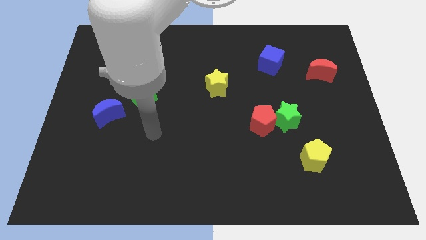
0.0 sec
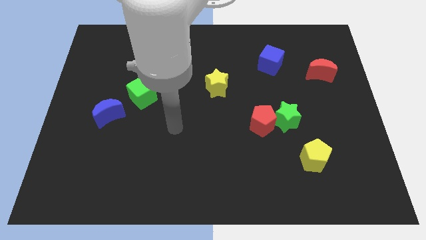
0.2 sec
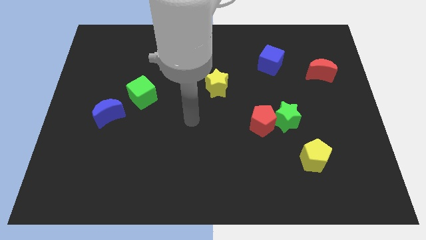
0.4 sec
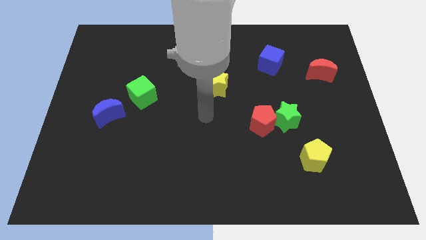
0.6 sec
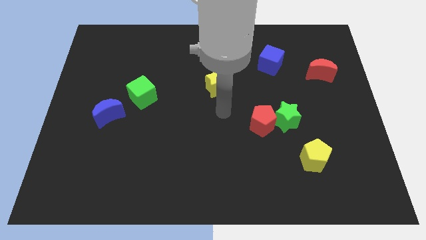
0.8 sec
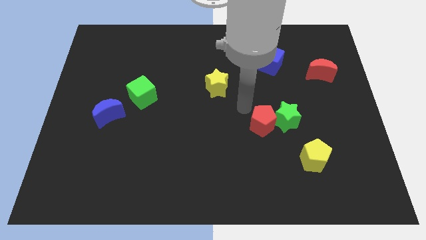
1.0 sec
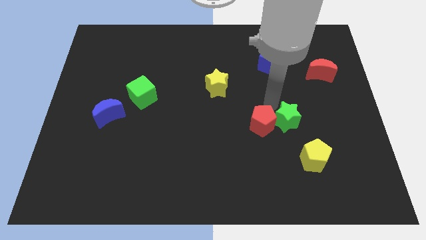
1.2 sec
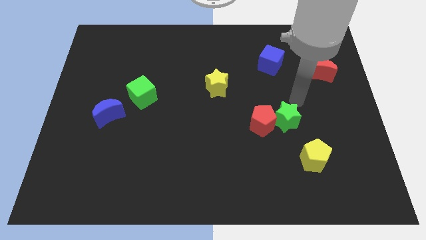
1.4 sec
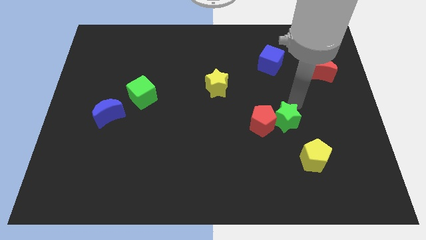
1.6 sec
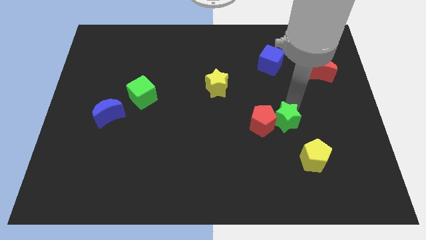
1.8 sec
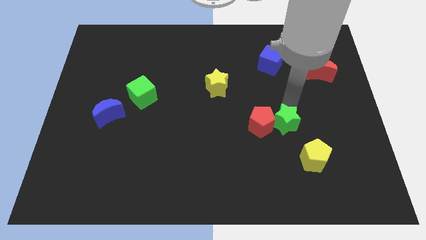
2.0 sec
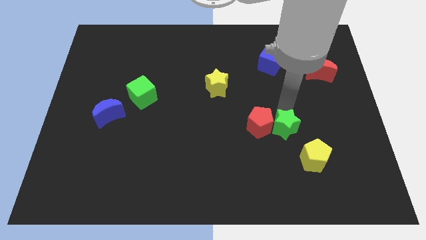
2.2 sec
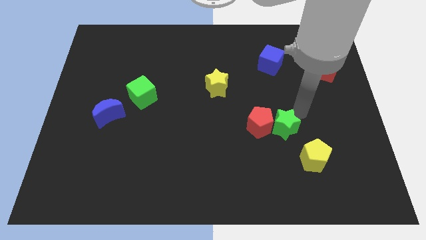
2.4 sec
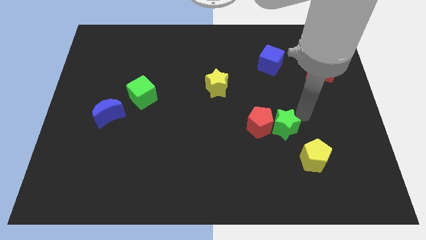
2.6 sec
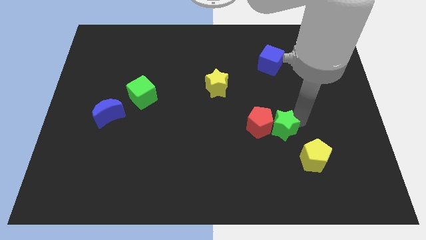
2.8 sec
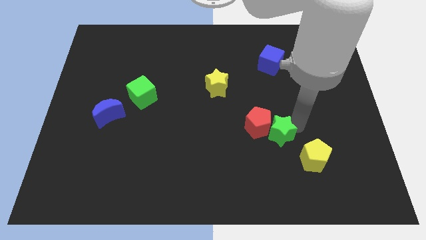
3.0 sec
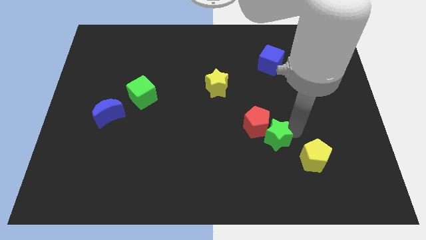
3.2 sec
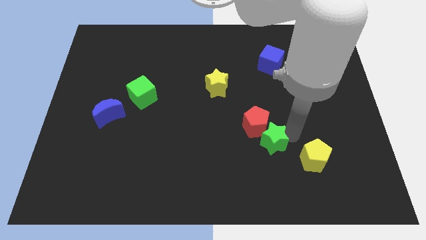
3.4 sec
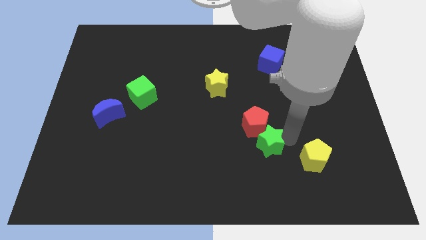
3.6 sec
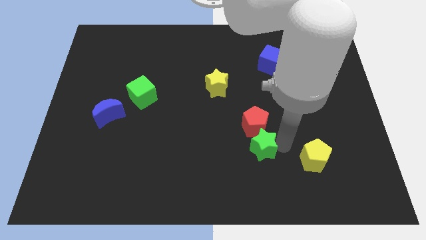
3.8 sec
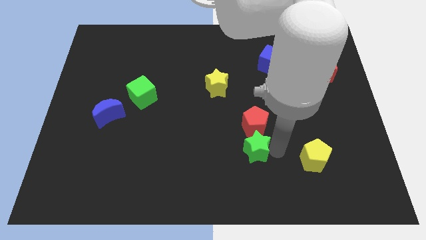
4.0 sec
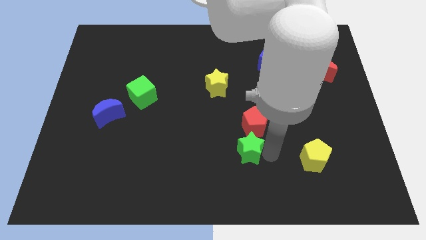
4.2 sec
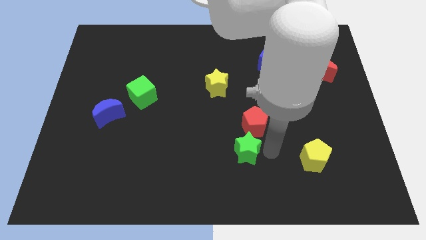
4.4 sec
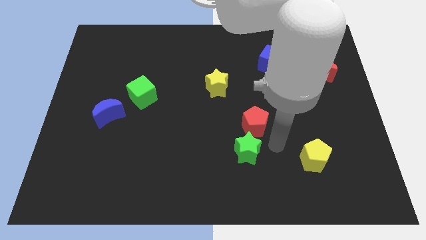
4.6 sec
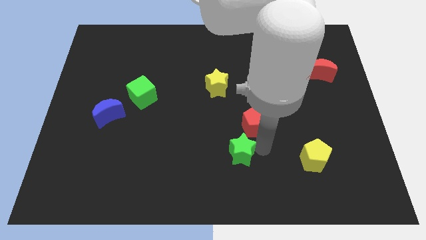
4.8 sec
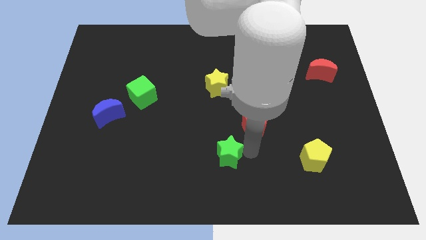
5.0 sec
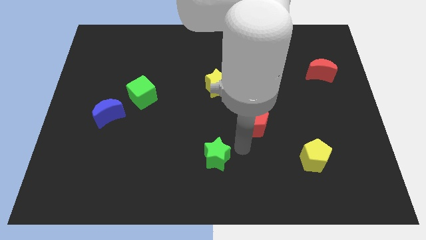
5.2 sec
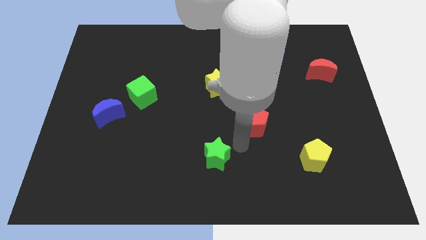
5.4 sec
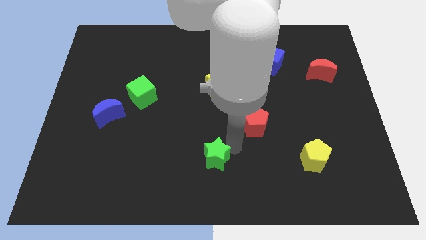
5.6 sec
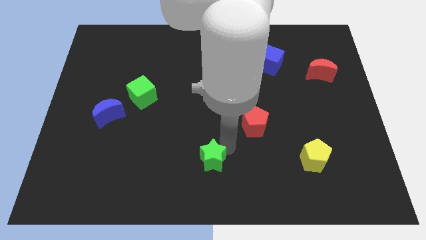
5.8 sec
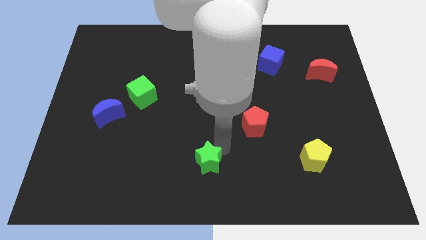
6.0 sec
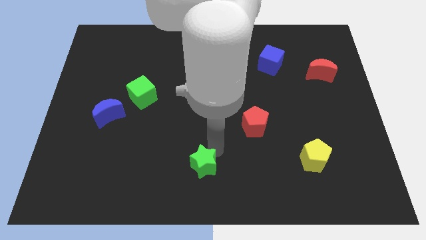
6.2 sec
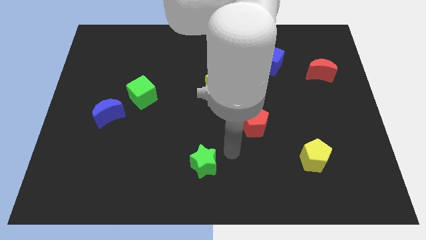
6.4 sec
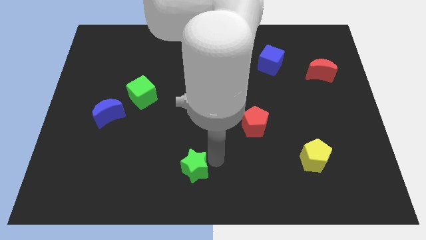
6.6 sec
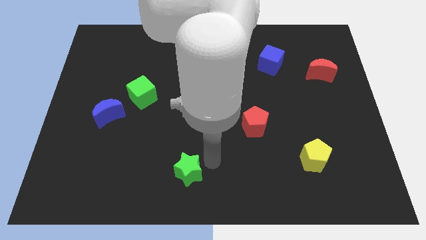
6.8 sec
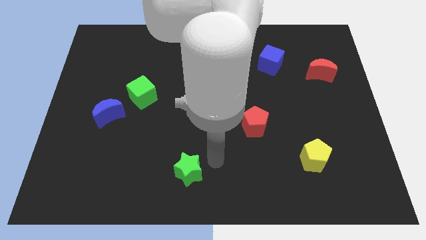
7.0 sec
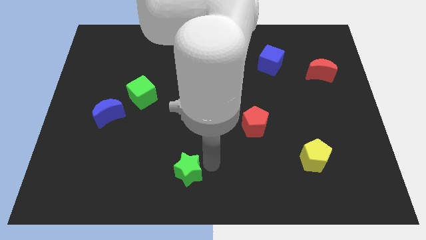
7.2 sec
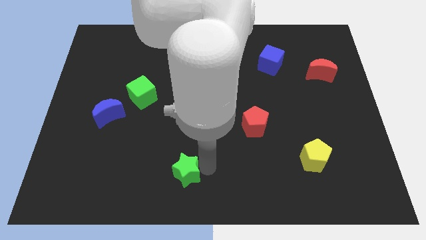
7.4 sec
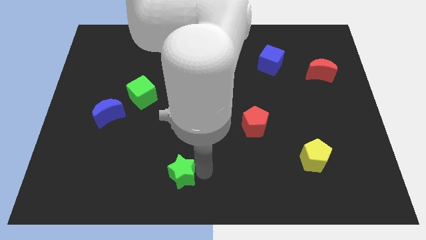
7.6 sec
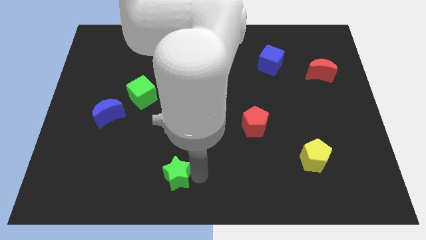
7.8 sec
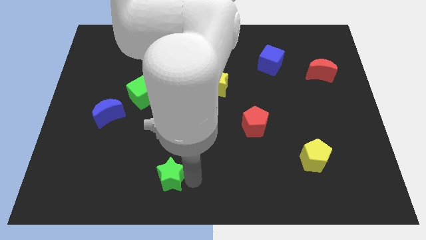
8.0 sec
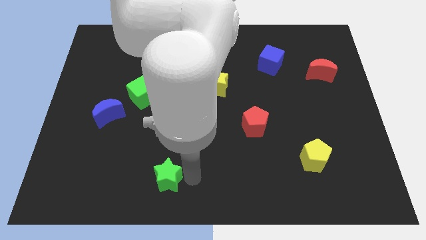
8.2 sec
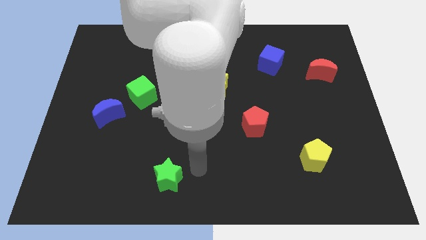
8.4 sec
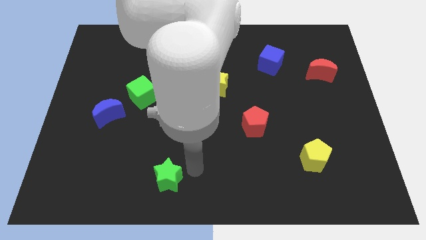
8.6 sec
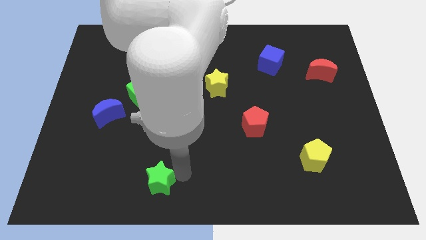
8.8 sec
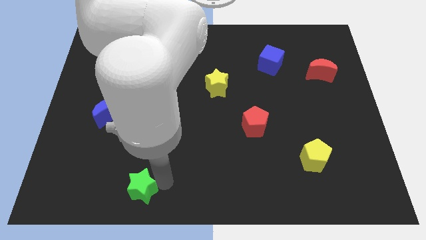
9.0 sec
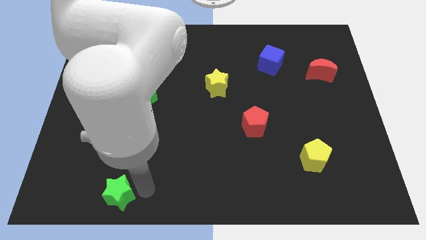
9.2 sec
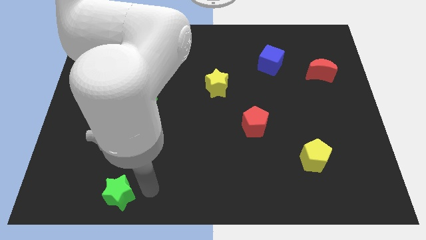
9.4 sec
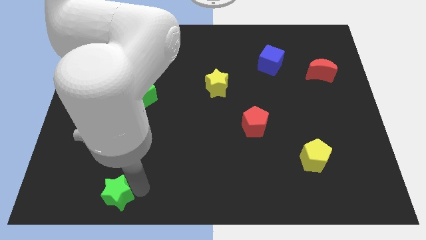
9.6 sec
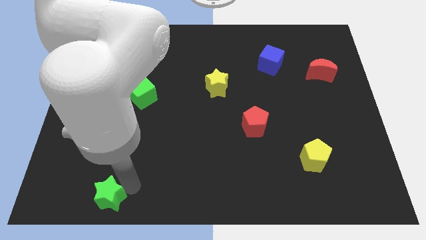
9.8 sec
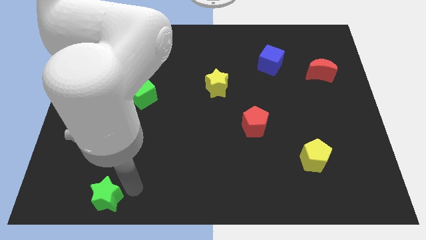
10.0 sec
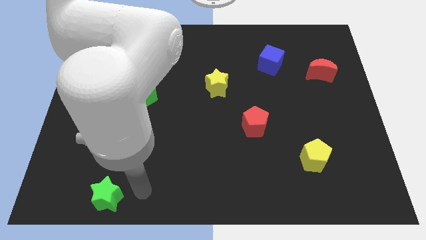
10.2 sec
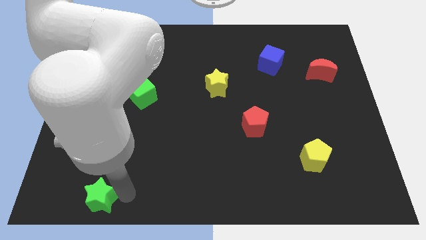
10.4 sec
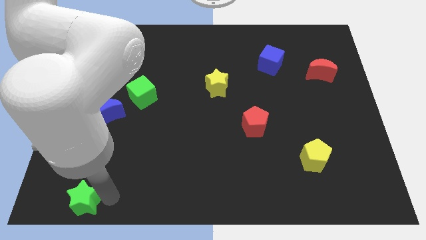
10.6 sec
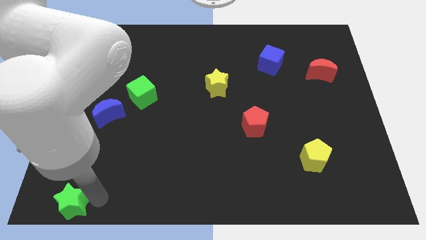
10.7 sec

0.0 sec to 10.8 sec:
push the green star to the bottom left of the board

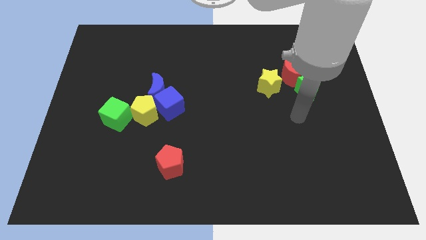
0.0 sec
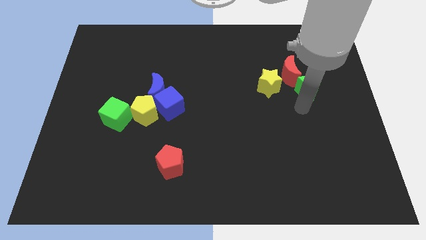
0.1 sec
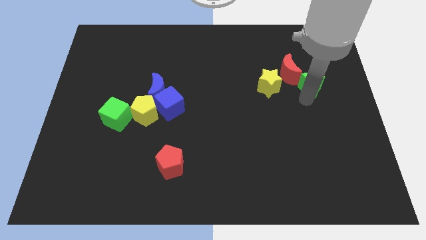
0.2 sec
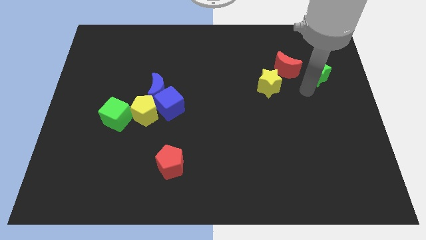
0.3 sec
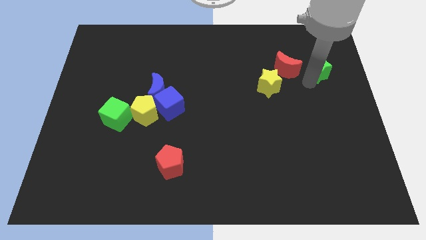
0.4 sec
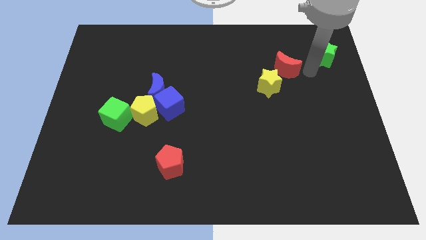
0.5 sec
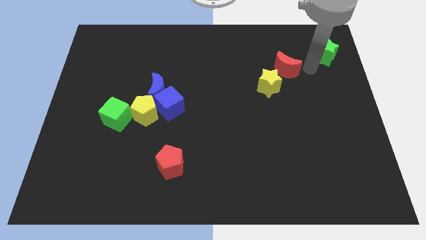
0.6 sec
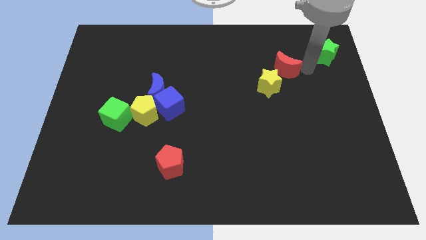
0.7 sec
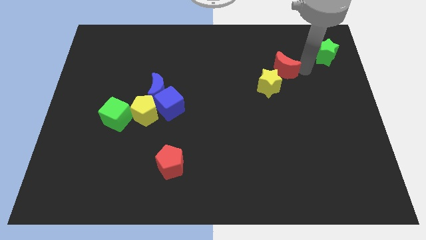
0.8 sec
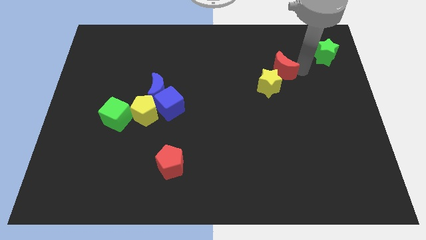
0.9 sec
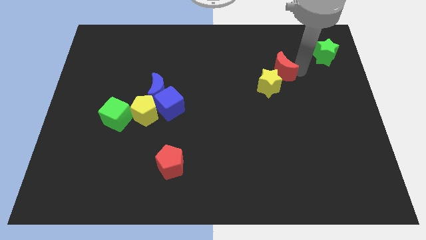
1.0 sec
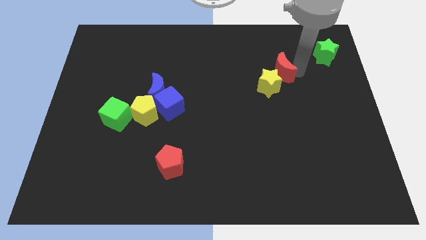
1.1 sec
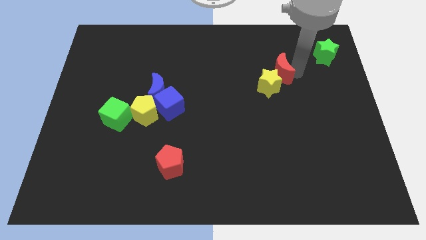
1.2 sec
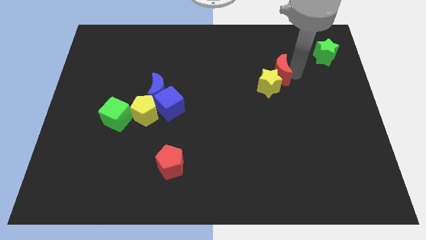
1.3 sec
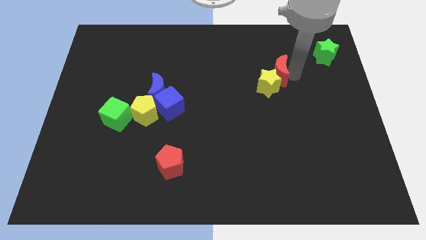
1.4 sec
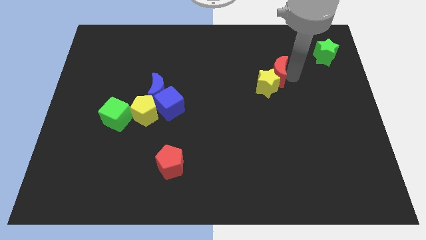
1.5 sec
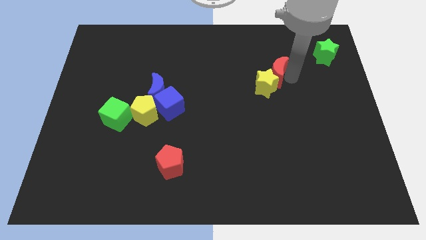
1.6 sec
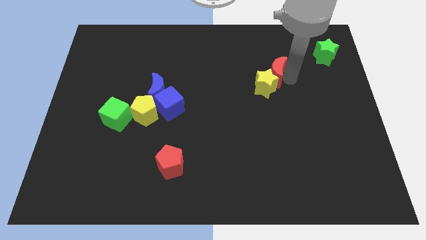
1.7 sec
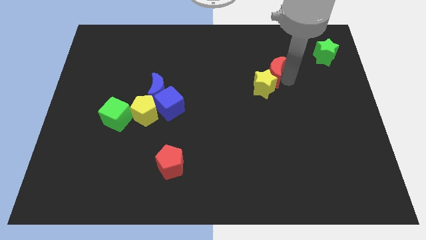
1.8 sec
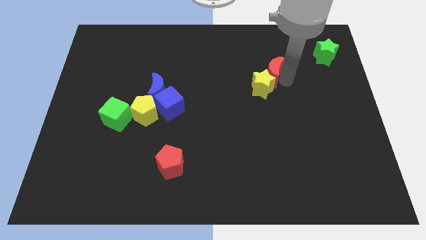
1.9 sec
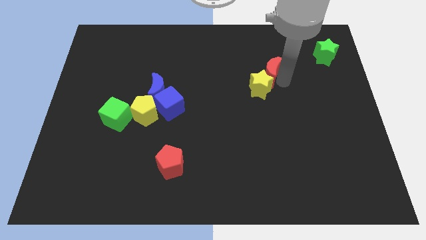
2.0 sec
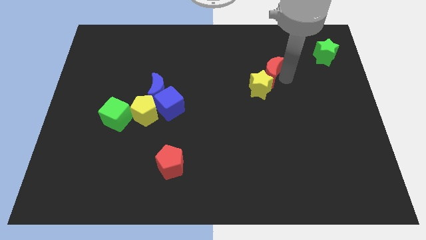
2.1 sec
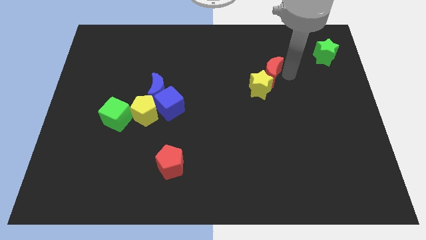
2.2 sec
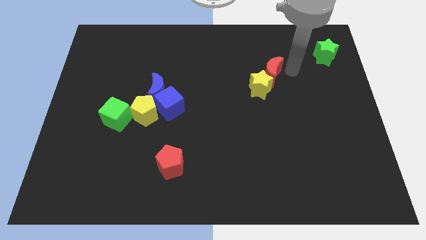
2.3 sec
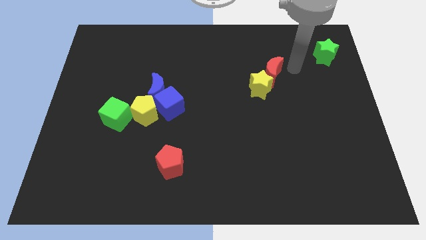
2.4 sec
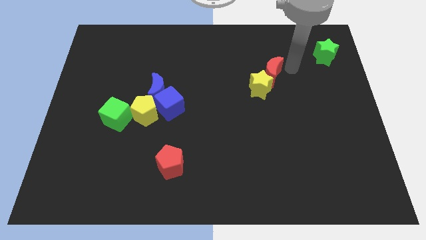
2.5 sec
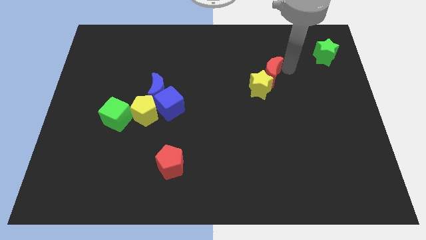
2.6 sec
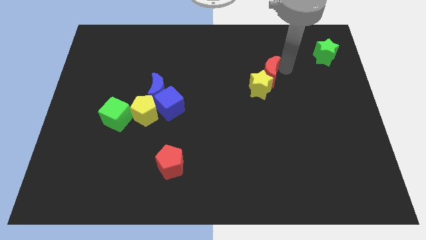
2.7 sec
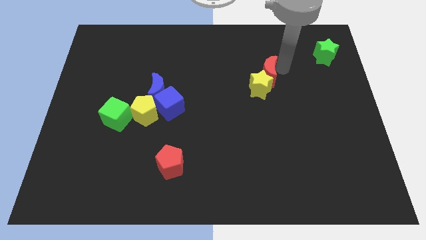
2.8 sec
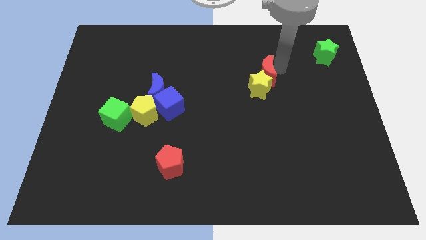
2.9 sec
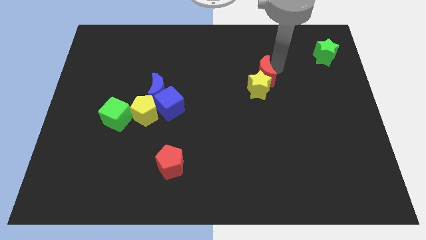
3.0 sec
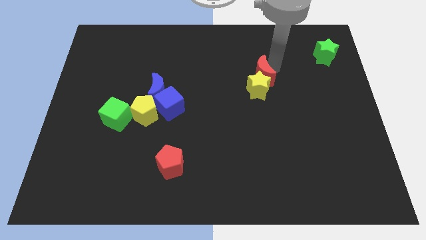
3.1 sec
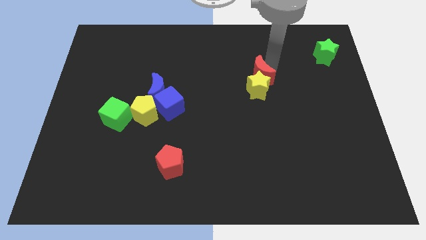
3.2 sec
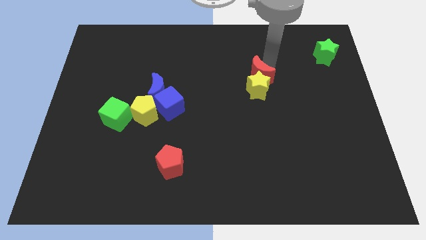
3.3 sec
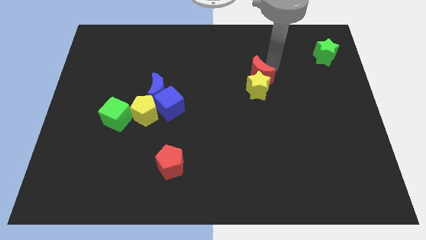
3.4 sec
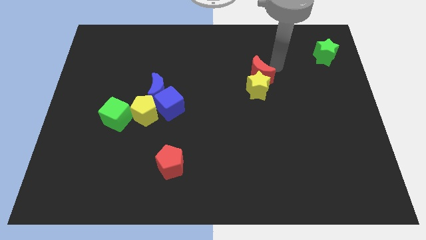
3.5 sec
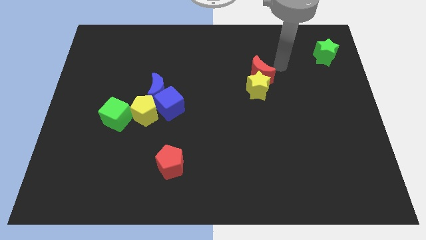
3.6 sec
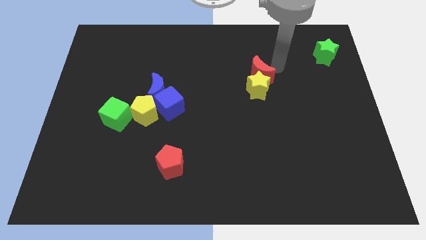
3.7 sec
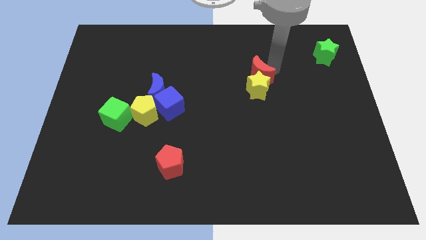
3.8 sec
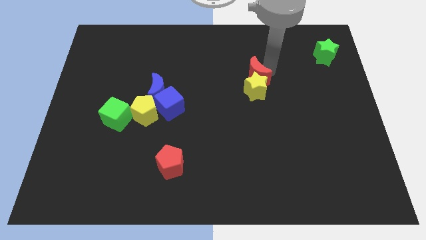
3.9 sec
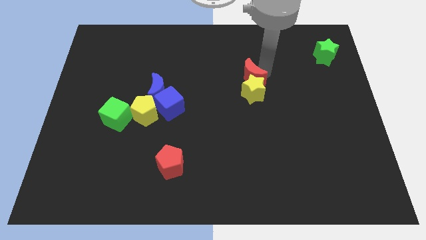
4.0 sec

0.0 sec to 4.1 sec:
slide the red moon to the center
